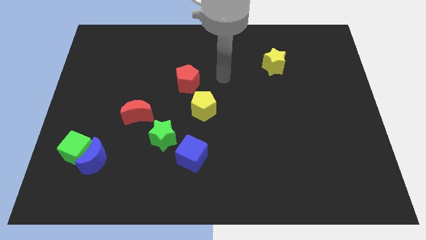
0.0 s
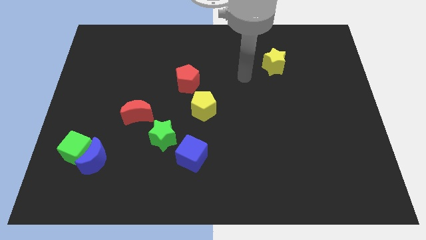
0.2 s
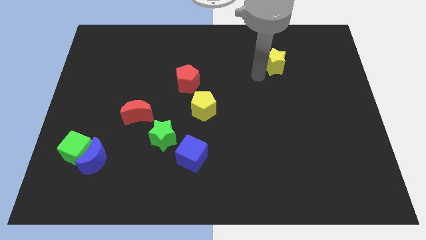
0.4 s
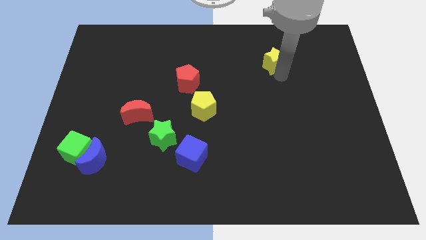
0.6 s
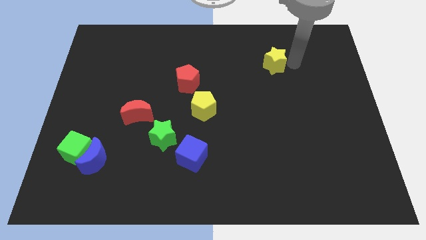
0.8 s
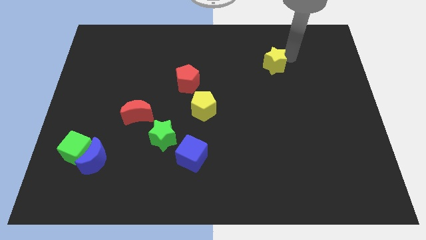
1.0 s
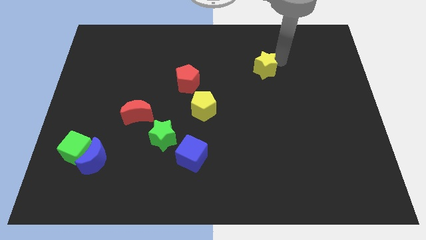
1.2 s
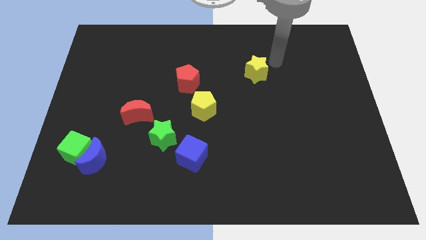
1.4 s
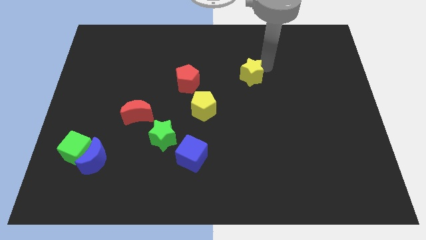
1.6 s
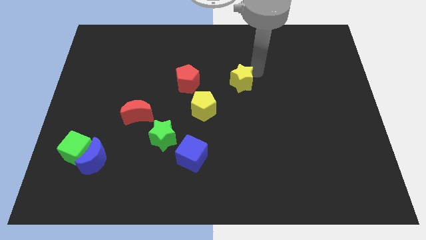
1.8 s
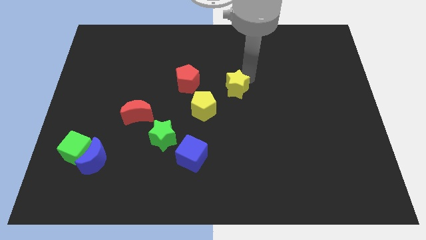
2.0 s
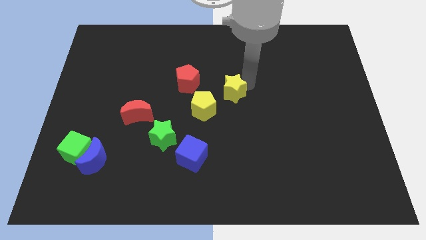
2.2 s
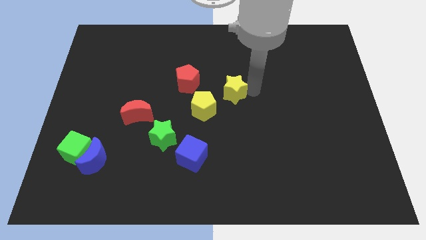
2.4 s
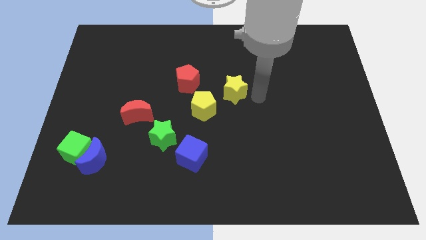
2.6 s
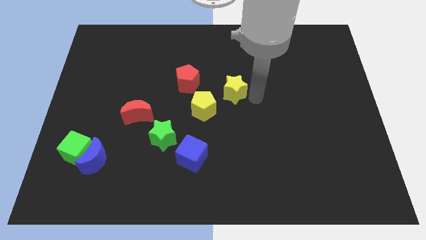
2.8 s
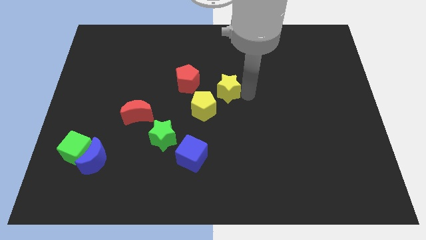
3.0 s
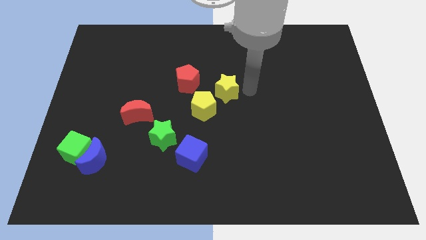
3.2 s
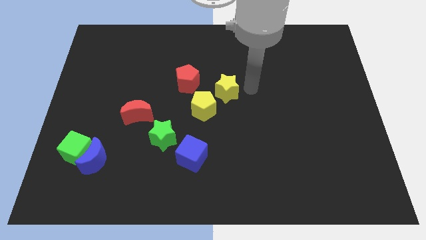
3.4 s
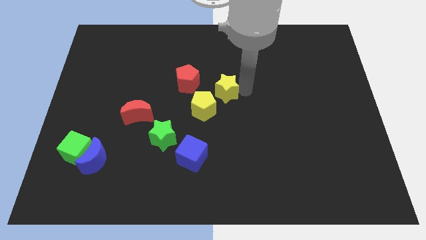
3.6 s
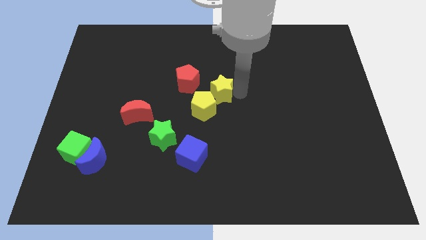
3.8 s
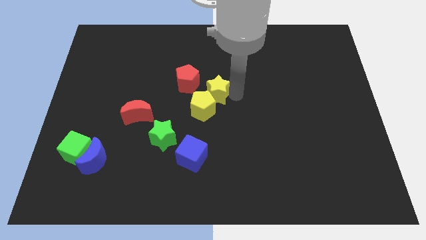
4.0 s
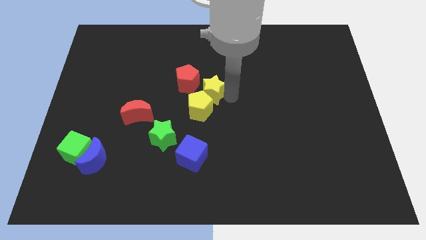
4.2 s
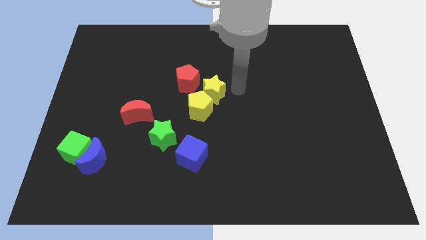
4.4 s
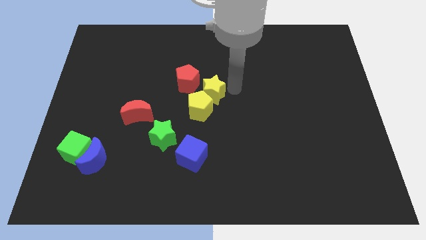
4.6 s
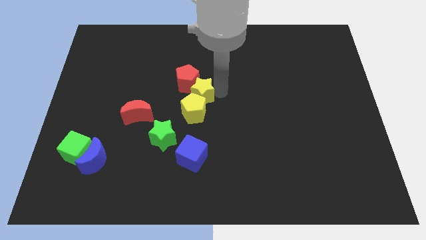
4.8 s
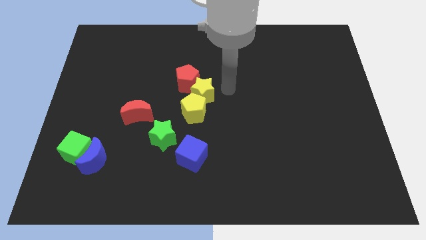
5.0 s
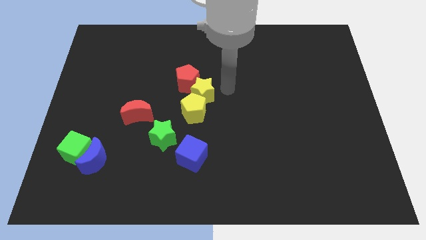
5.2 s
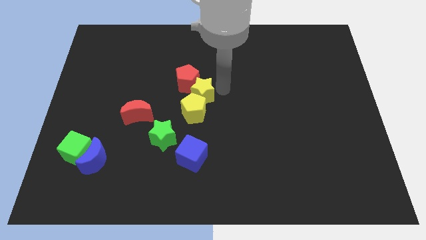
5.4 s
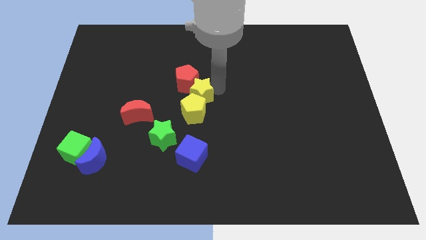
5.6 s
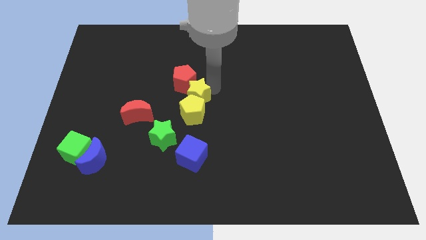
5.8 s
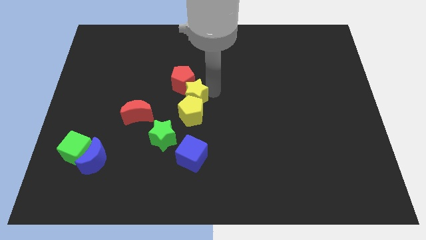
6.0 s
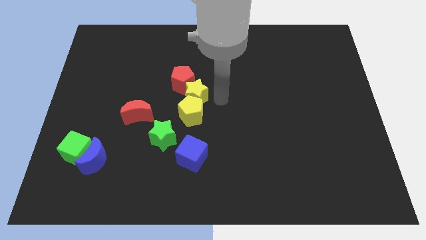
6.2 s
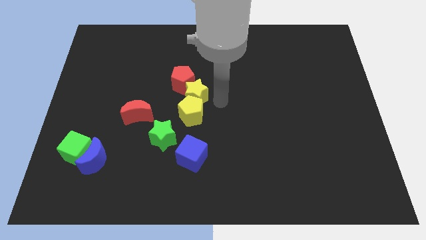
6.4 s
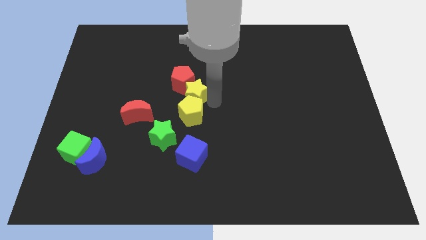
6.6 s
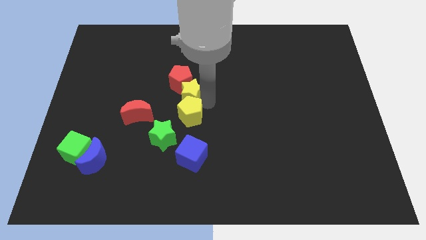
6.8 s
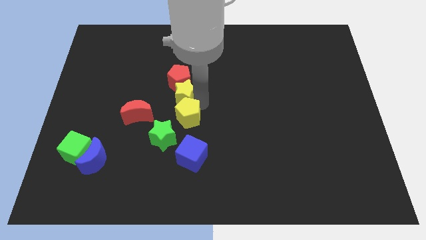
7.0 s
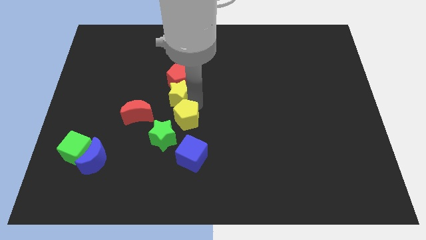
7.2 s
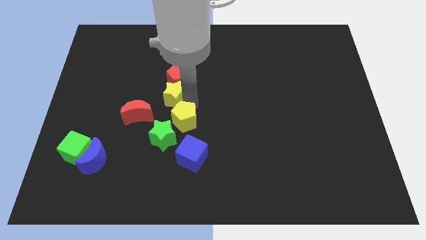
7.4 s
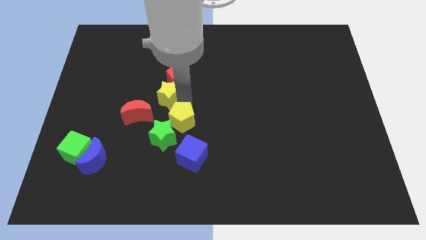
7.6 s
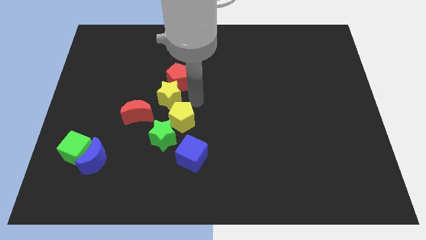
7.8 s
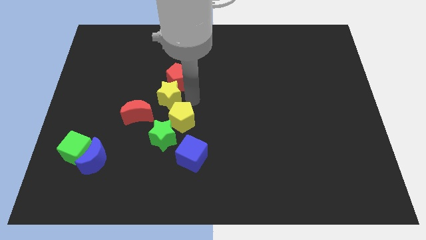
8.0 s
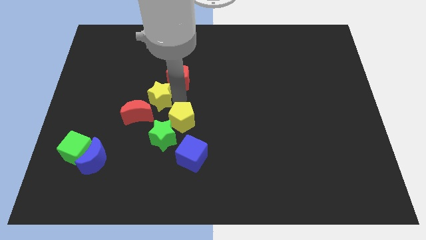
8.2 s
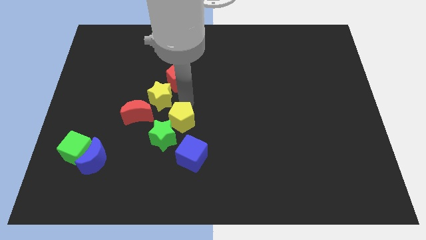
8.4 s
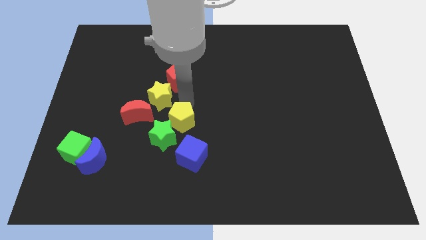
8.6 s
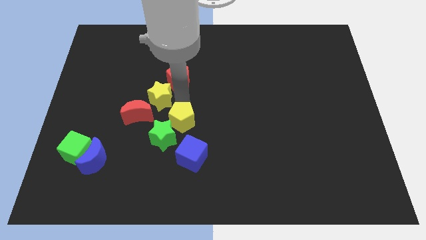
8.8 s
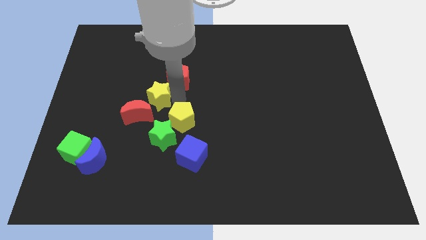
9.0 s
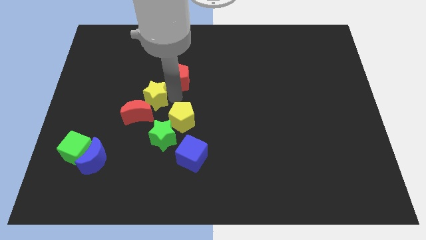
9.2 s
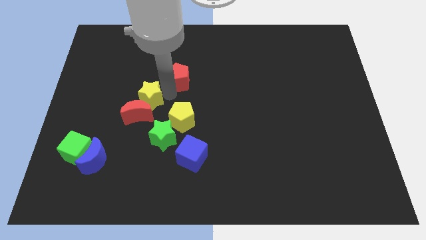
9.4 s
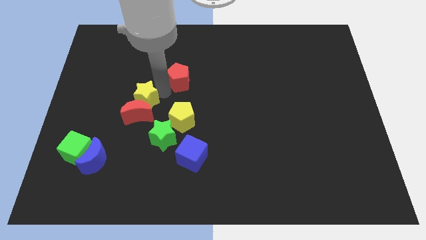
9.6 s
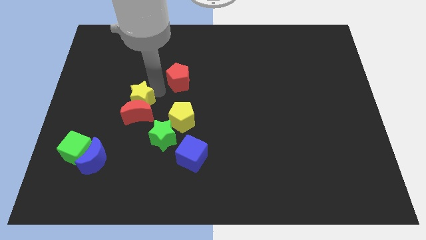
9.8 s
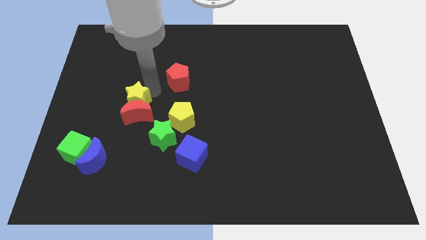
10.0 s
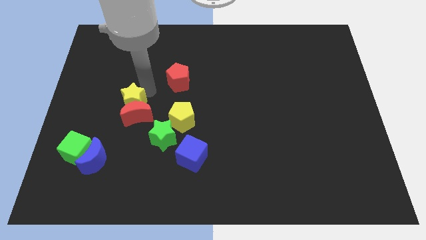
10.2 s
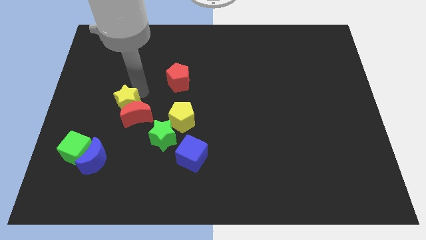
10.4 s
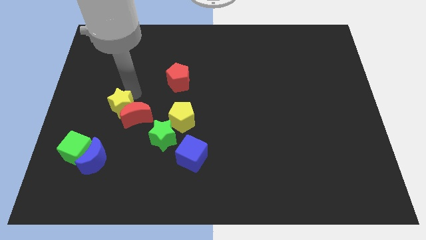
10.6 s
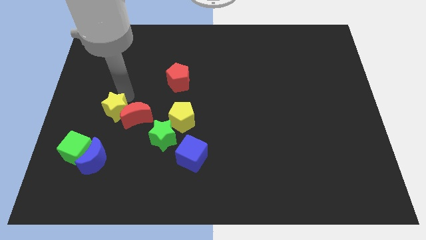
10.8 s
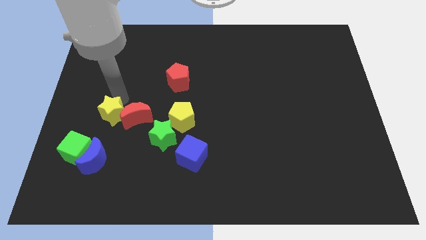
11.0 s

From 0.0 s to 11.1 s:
push the yellow star to the top right side of the green cube

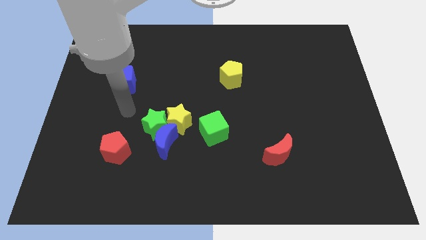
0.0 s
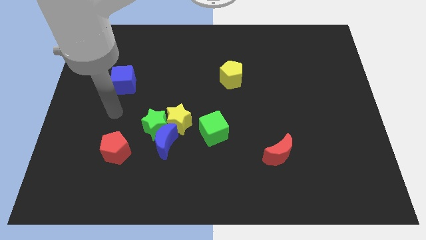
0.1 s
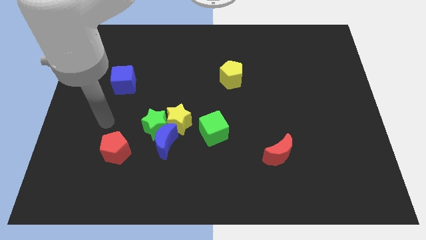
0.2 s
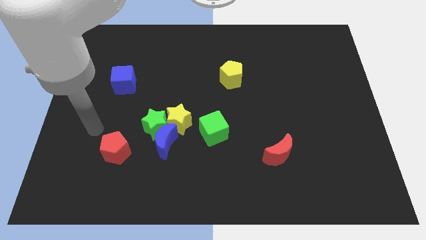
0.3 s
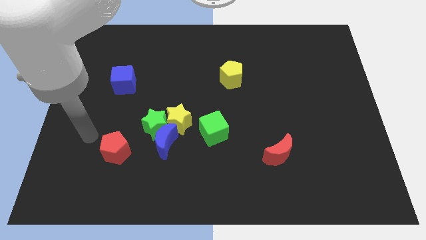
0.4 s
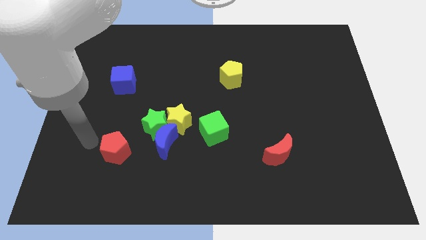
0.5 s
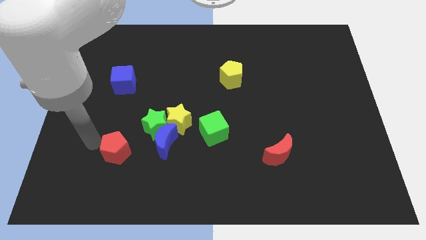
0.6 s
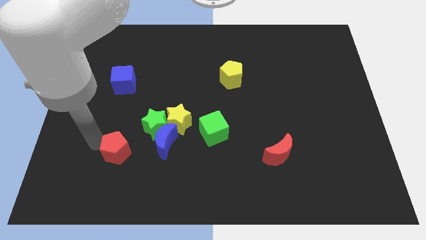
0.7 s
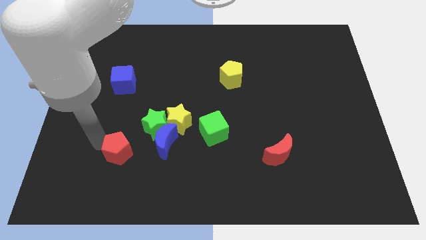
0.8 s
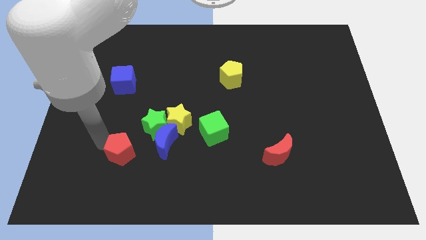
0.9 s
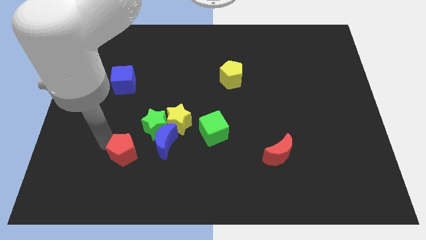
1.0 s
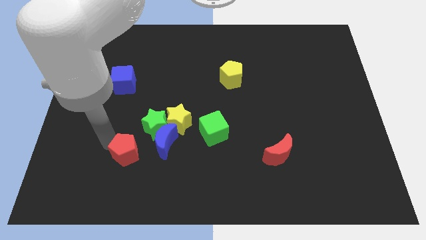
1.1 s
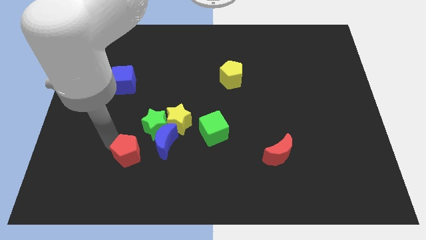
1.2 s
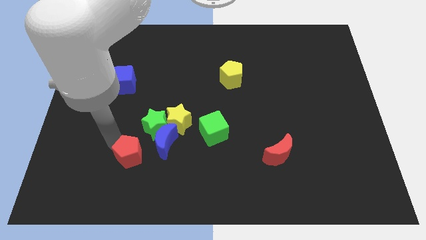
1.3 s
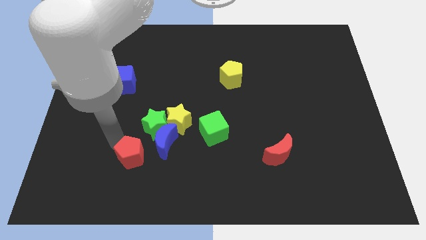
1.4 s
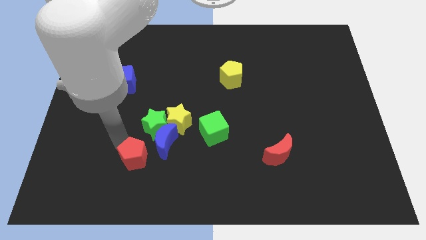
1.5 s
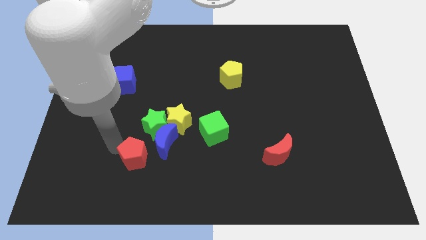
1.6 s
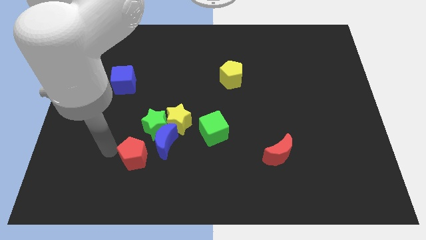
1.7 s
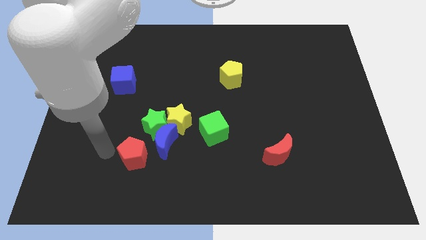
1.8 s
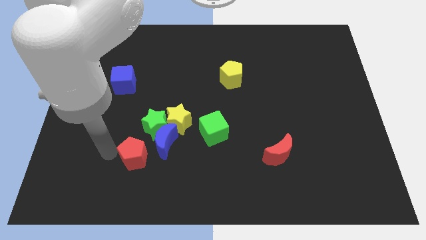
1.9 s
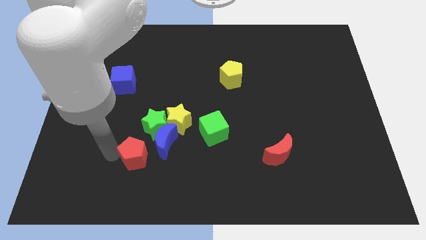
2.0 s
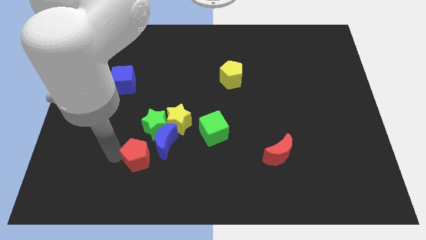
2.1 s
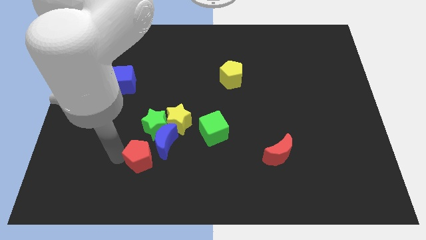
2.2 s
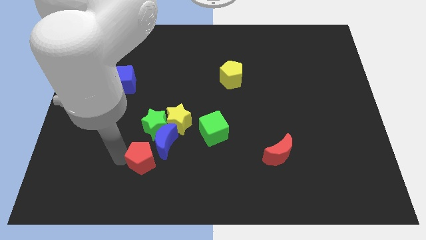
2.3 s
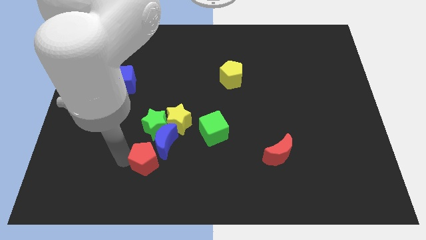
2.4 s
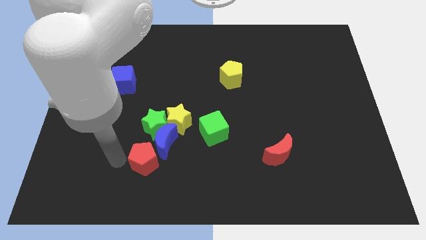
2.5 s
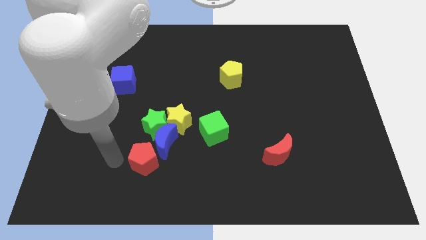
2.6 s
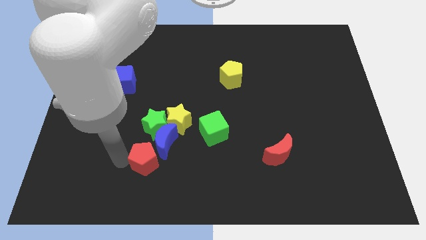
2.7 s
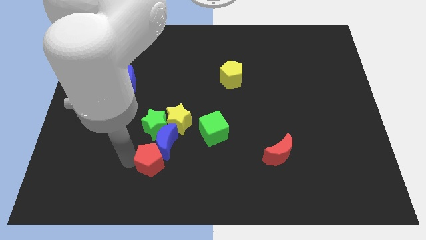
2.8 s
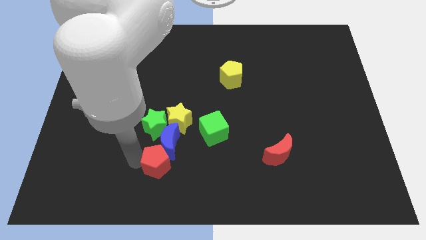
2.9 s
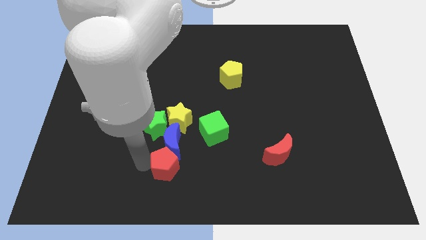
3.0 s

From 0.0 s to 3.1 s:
push the red pentagon to the bottom right of the green star
